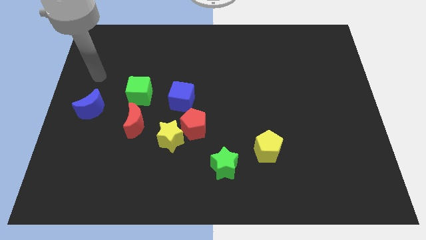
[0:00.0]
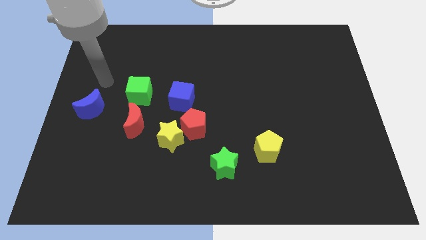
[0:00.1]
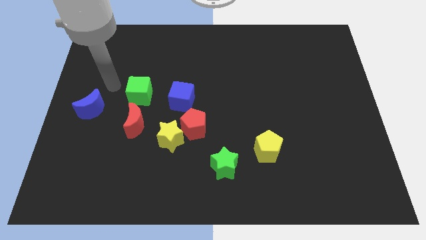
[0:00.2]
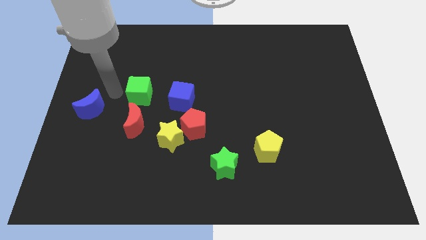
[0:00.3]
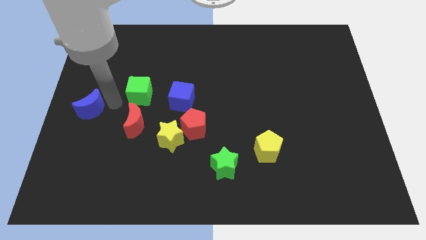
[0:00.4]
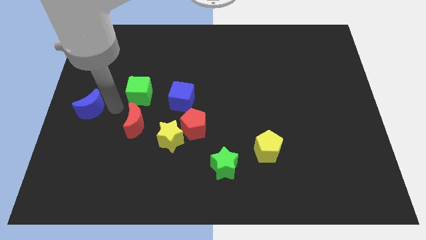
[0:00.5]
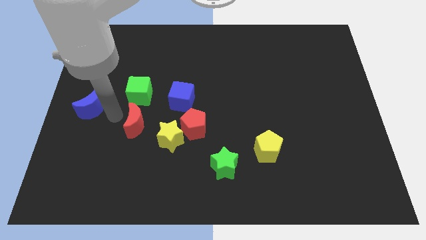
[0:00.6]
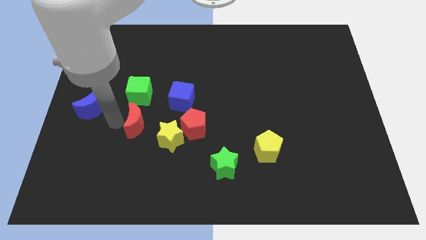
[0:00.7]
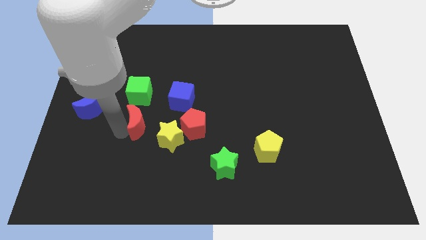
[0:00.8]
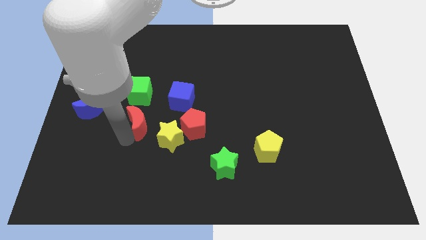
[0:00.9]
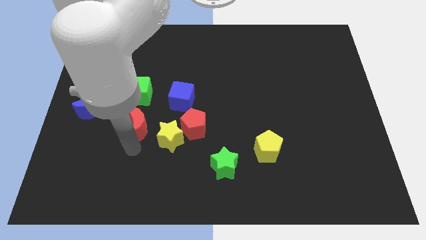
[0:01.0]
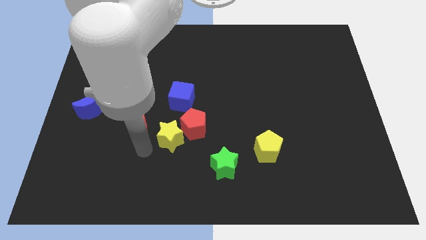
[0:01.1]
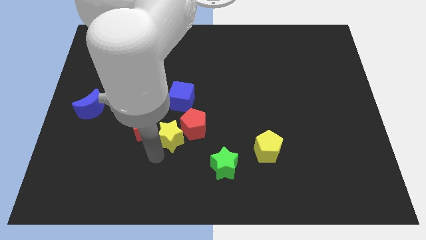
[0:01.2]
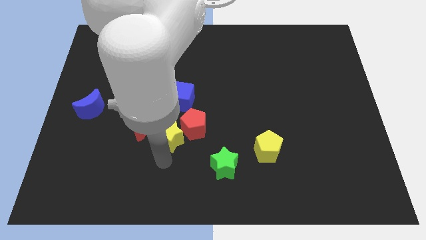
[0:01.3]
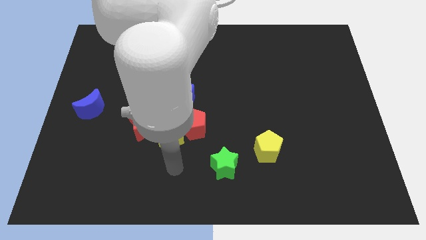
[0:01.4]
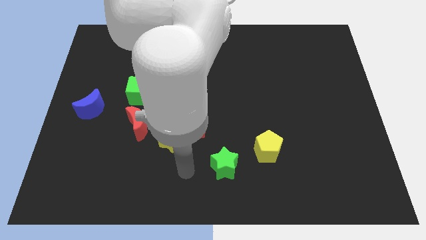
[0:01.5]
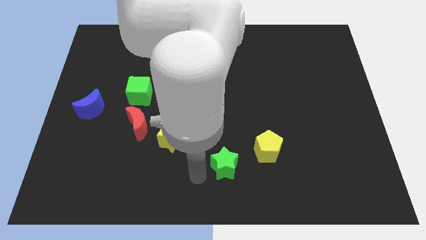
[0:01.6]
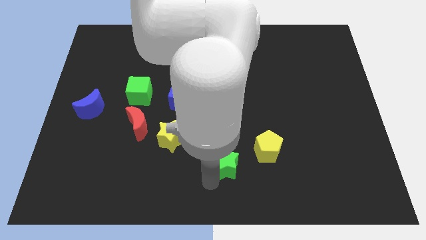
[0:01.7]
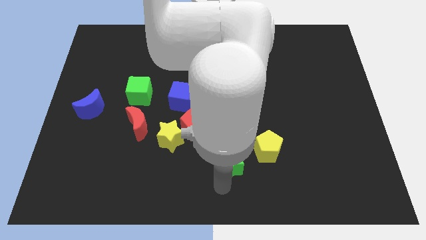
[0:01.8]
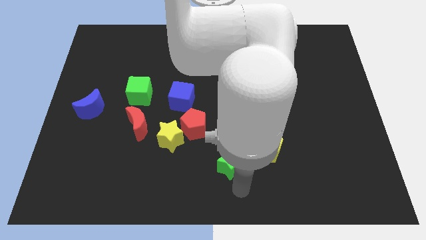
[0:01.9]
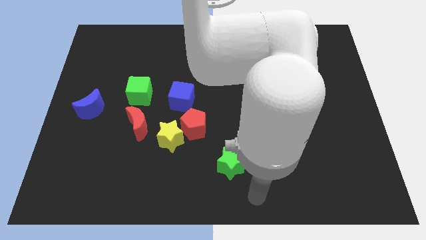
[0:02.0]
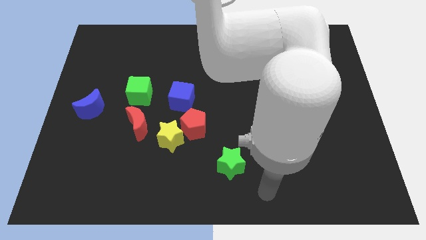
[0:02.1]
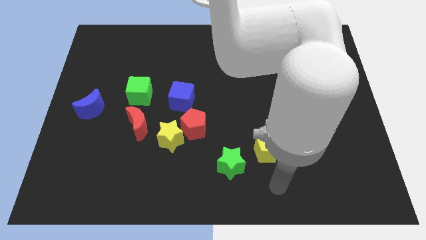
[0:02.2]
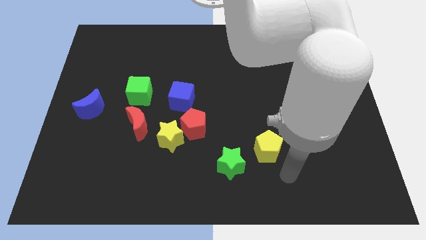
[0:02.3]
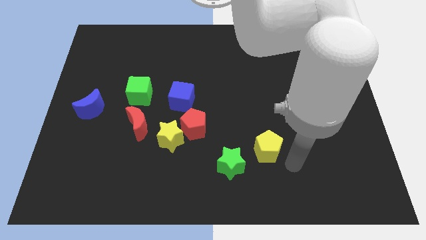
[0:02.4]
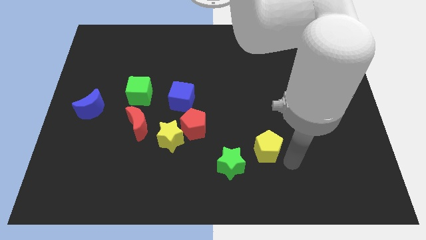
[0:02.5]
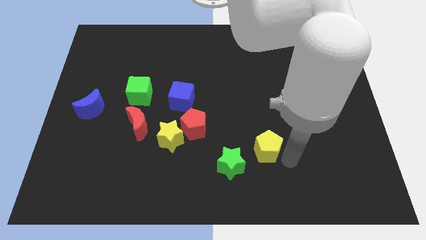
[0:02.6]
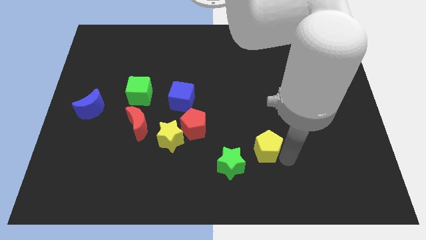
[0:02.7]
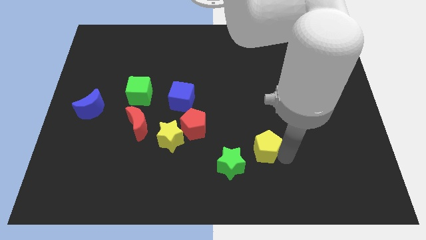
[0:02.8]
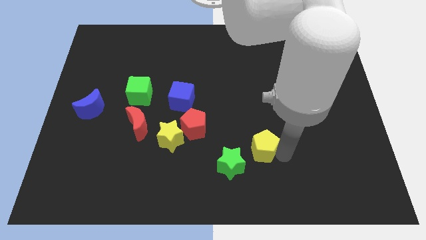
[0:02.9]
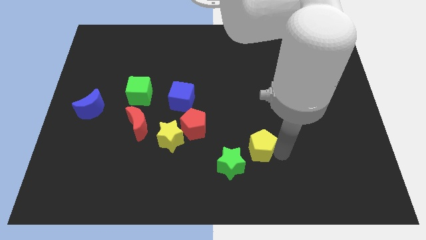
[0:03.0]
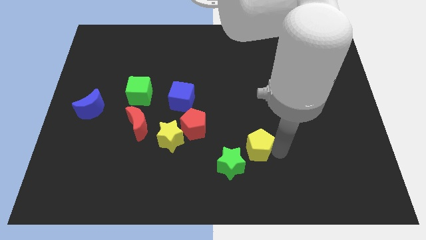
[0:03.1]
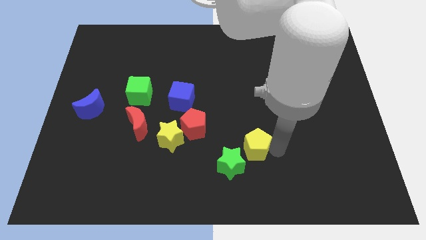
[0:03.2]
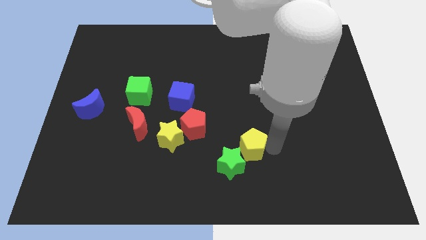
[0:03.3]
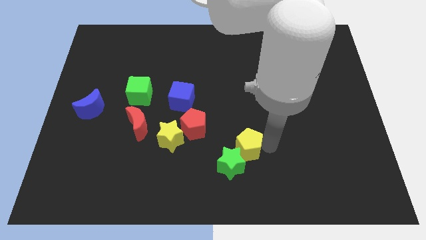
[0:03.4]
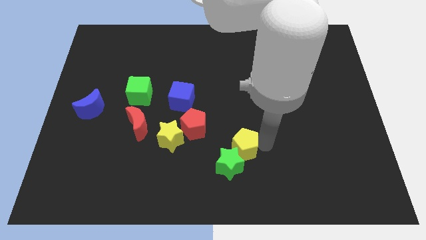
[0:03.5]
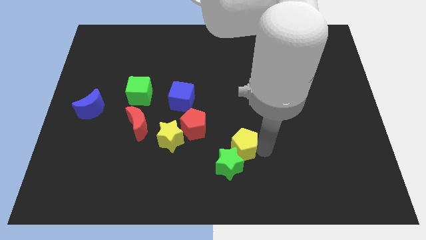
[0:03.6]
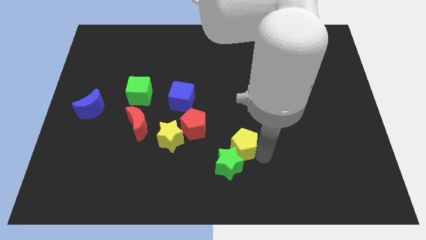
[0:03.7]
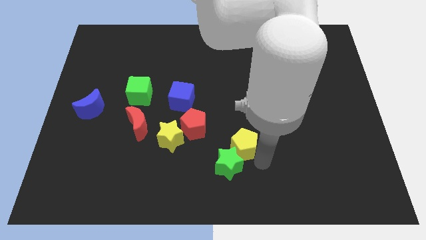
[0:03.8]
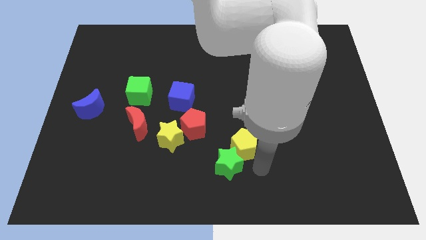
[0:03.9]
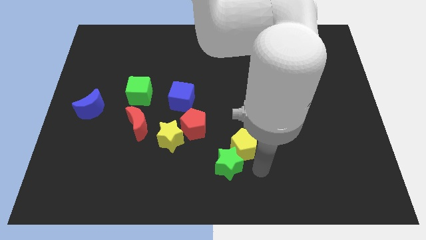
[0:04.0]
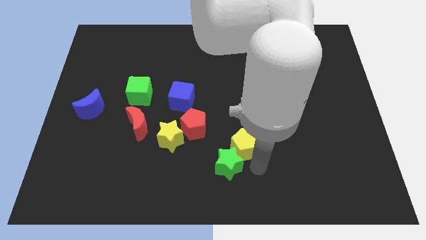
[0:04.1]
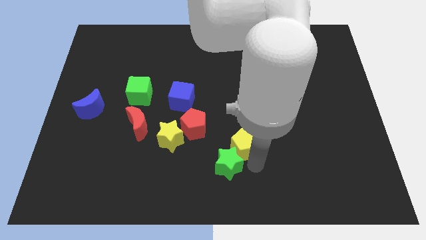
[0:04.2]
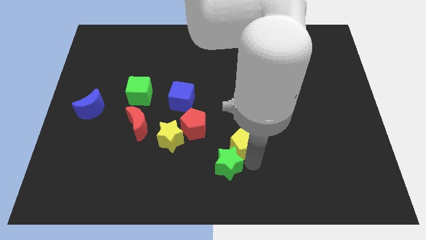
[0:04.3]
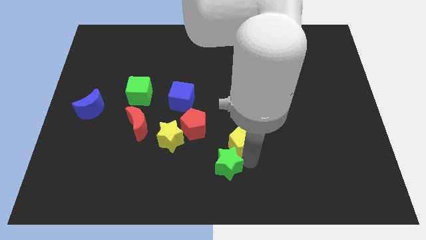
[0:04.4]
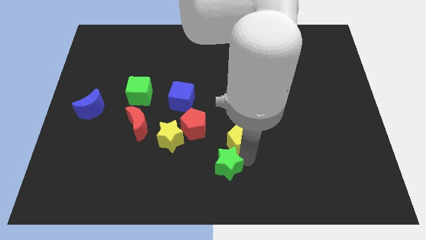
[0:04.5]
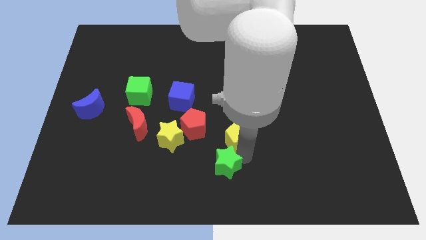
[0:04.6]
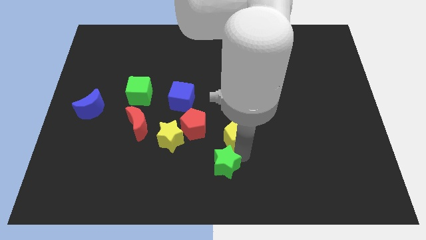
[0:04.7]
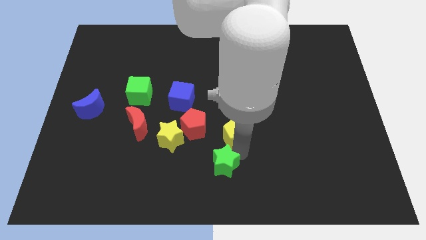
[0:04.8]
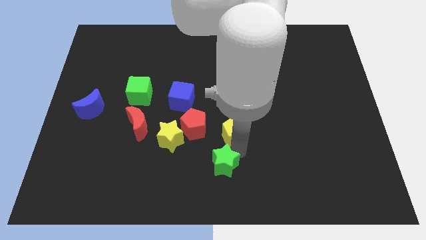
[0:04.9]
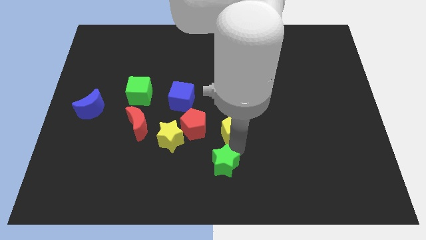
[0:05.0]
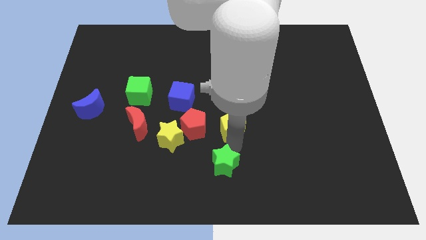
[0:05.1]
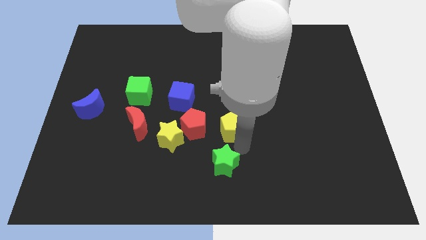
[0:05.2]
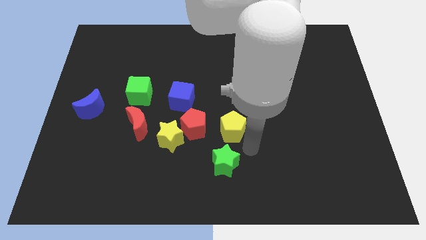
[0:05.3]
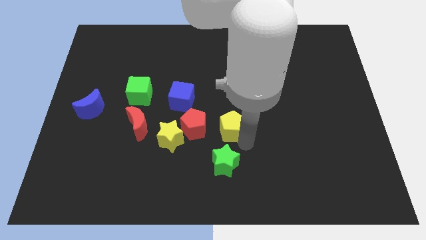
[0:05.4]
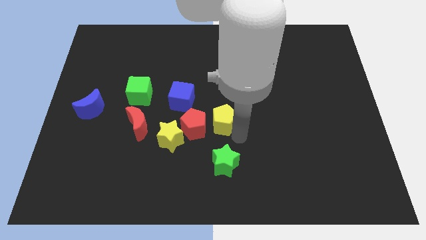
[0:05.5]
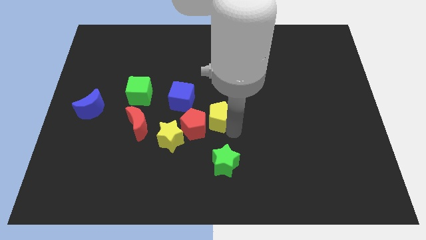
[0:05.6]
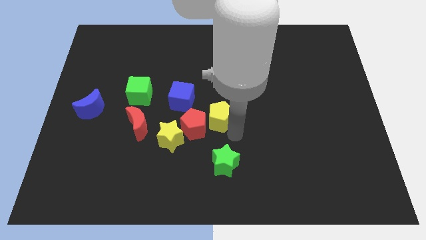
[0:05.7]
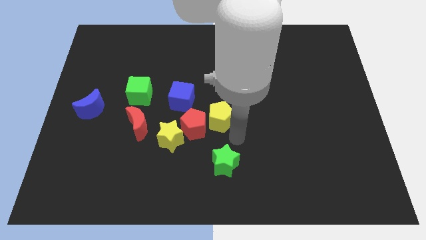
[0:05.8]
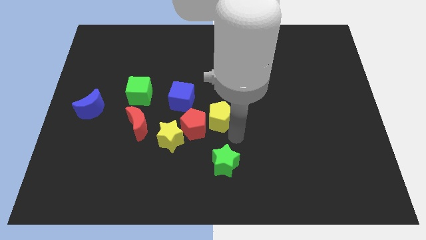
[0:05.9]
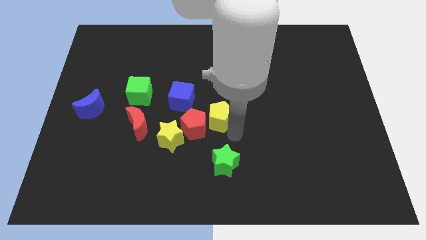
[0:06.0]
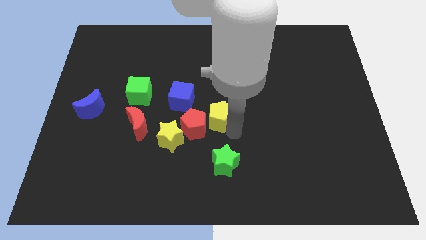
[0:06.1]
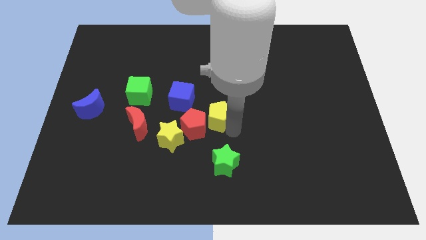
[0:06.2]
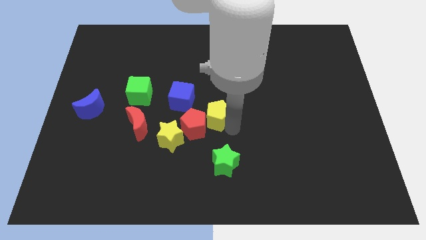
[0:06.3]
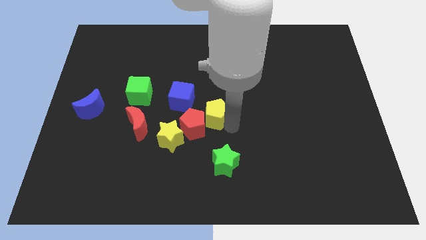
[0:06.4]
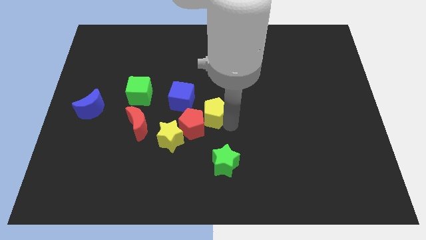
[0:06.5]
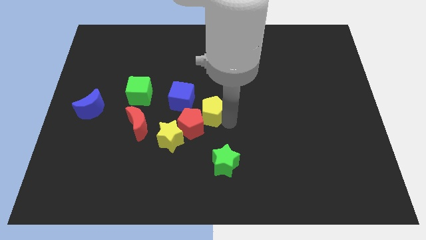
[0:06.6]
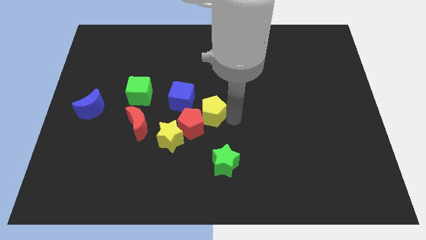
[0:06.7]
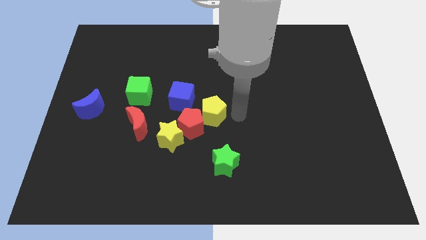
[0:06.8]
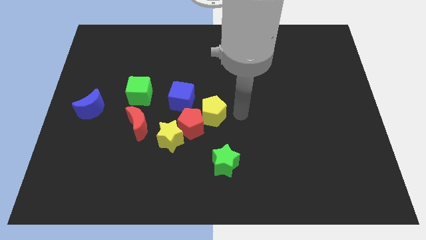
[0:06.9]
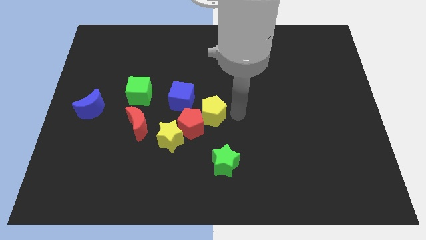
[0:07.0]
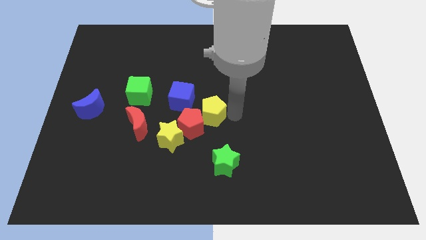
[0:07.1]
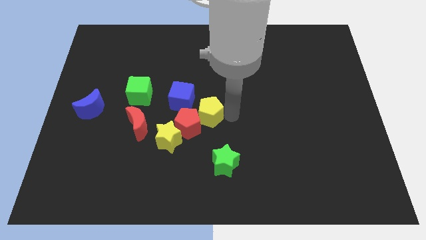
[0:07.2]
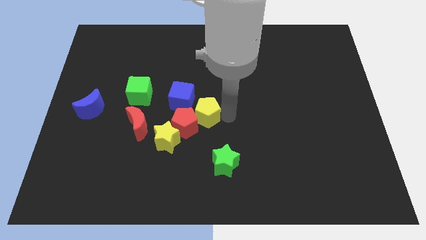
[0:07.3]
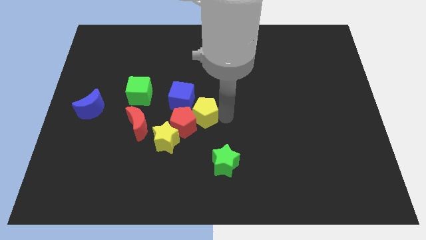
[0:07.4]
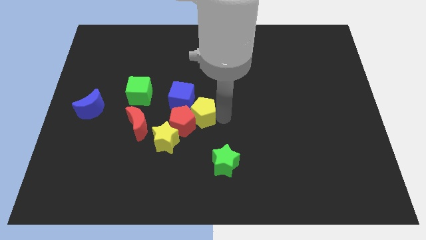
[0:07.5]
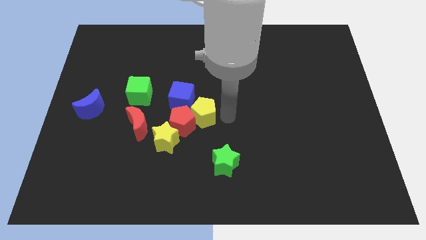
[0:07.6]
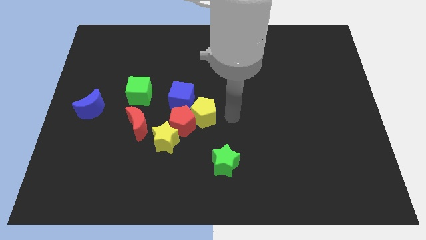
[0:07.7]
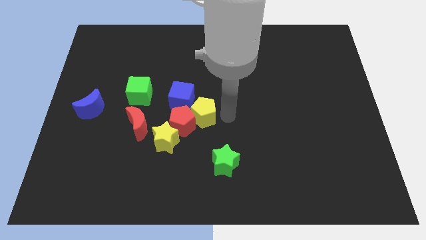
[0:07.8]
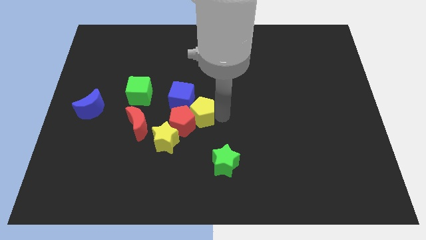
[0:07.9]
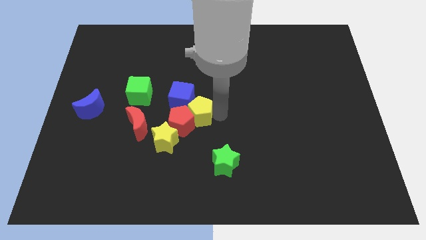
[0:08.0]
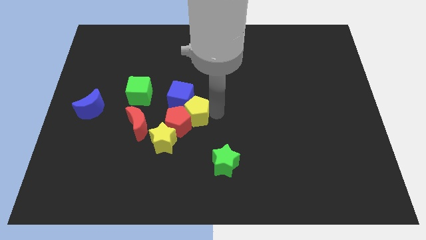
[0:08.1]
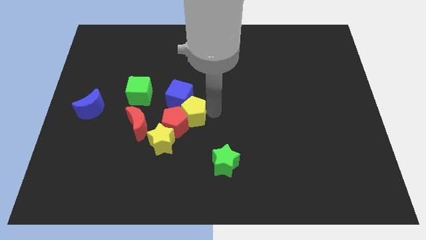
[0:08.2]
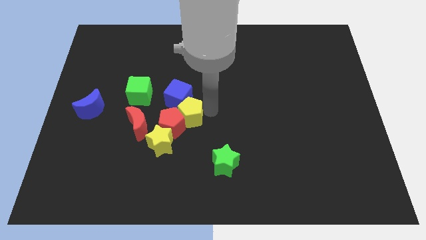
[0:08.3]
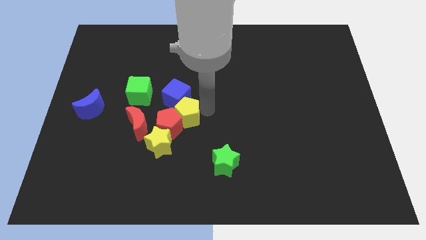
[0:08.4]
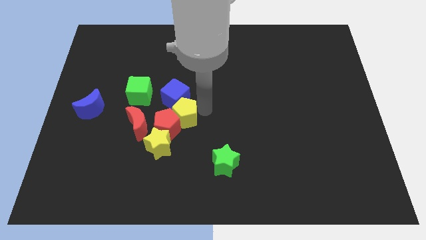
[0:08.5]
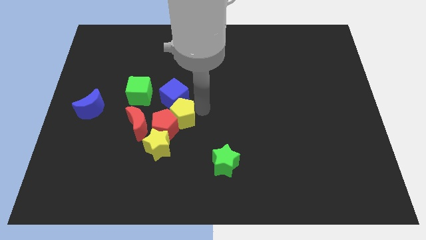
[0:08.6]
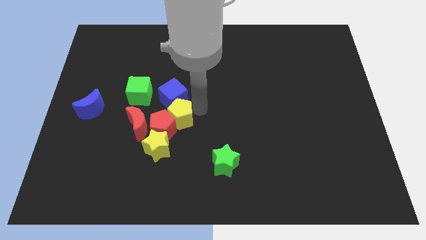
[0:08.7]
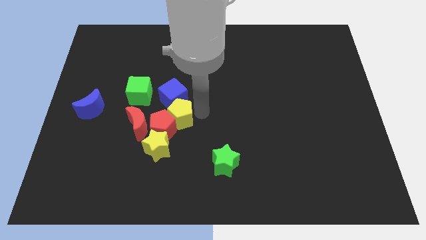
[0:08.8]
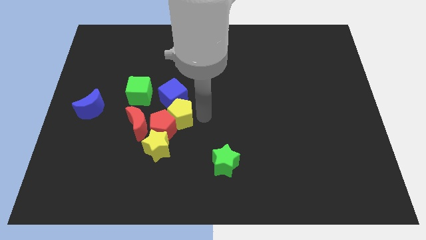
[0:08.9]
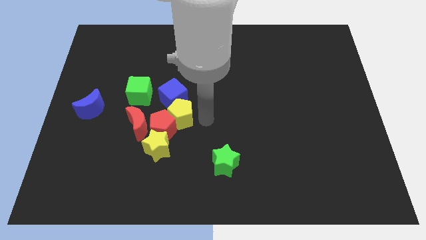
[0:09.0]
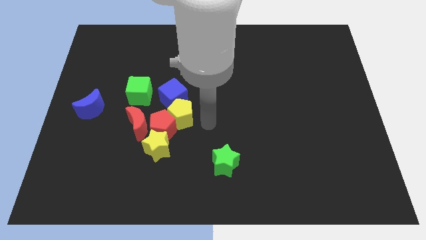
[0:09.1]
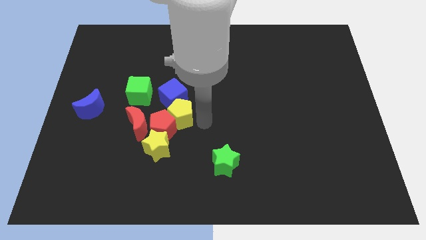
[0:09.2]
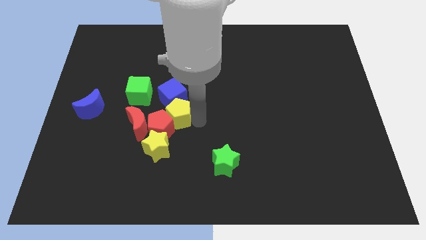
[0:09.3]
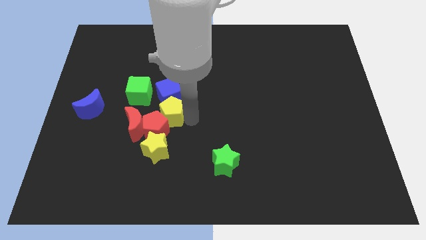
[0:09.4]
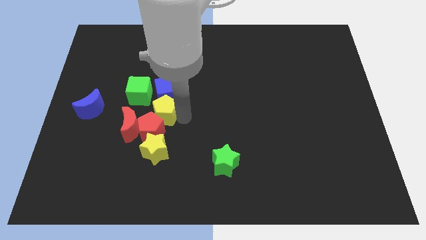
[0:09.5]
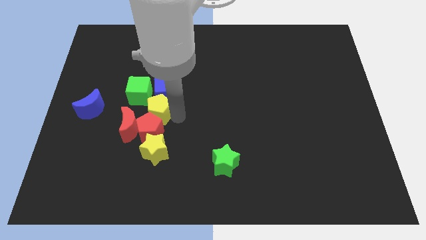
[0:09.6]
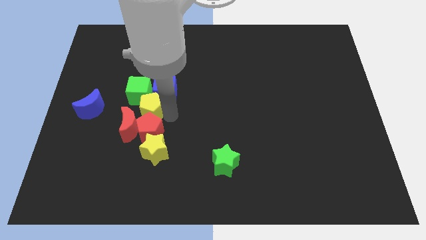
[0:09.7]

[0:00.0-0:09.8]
slide the yellow pentagon next to the green cube
